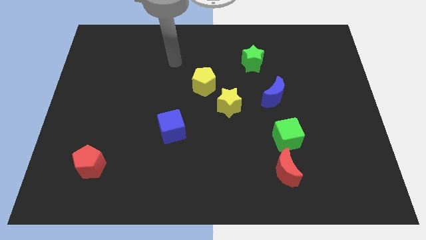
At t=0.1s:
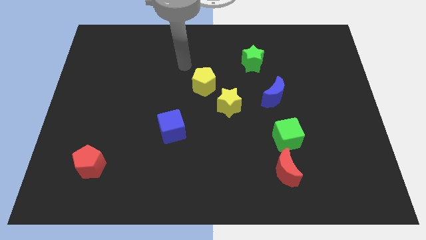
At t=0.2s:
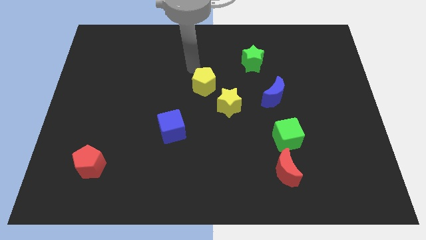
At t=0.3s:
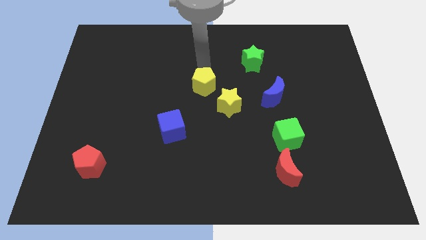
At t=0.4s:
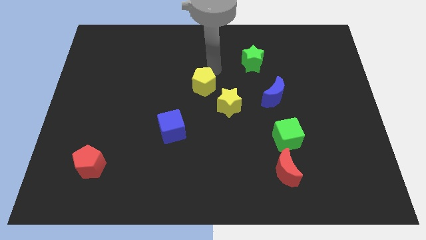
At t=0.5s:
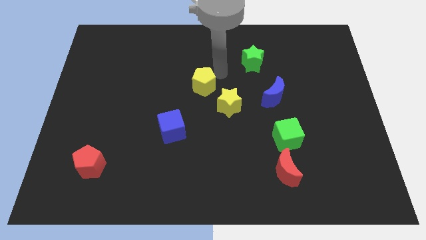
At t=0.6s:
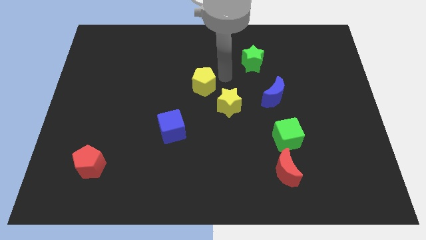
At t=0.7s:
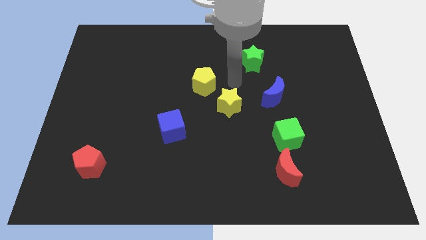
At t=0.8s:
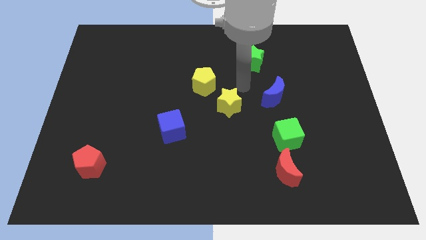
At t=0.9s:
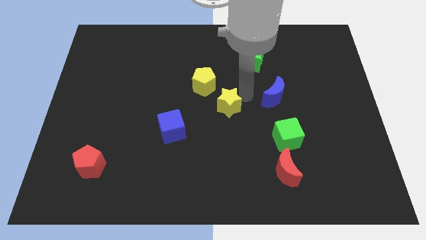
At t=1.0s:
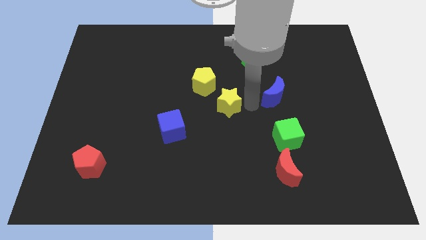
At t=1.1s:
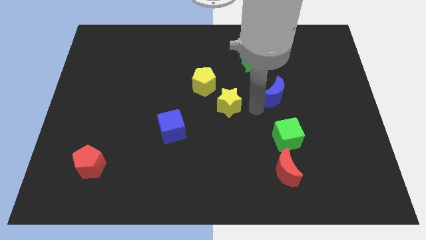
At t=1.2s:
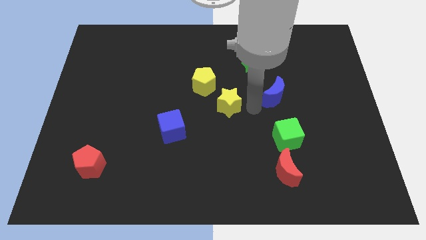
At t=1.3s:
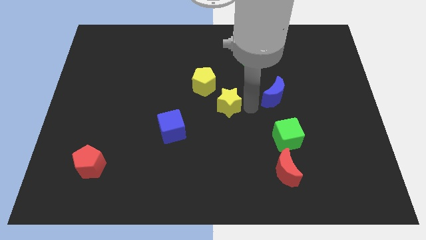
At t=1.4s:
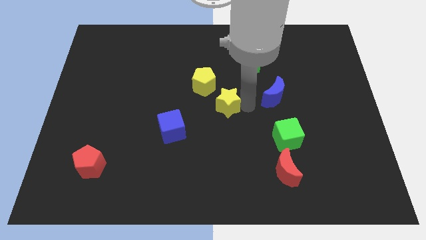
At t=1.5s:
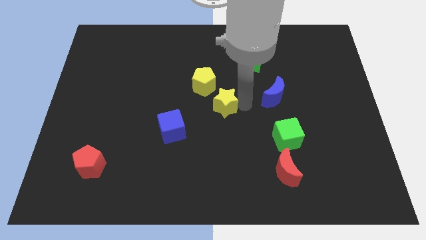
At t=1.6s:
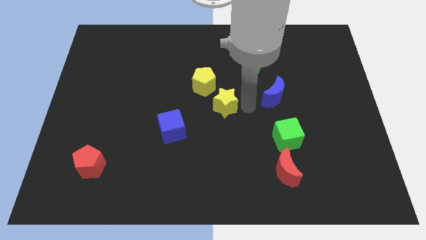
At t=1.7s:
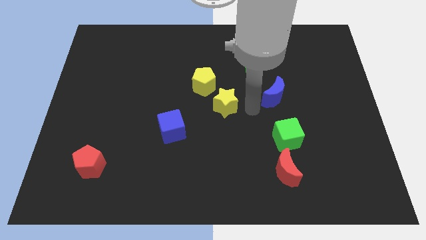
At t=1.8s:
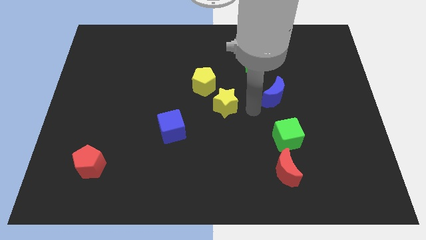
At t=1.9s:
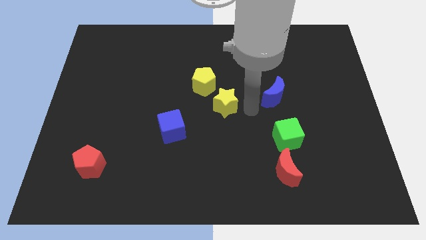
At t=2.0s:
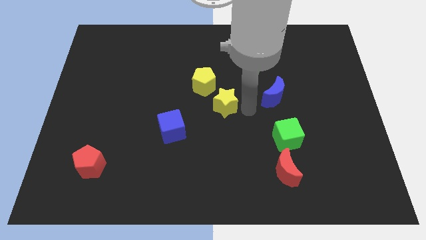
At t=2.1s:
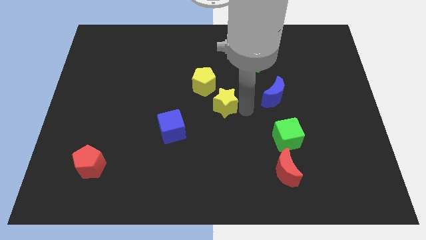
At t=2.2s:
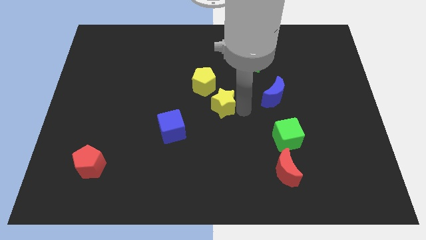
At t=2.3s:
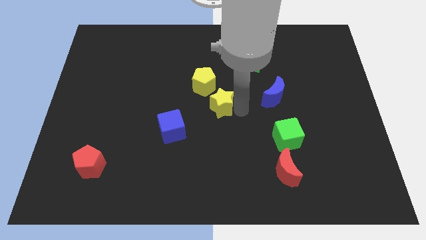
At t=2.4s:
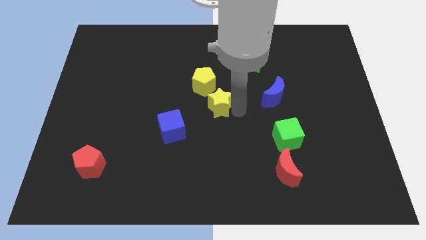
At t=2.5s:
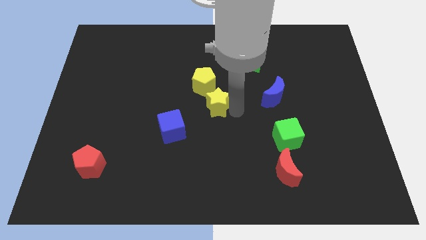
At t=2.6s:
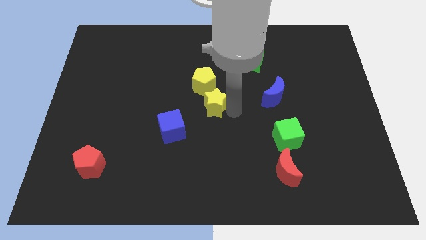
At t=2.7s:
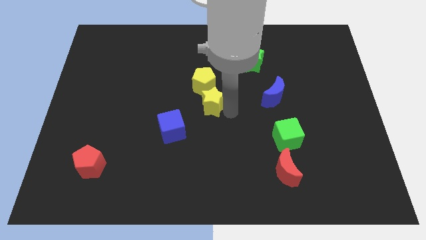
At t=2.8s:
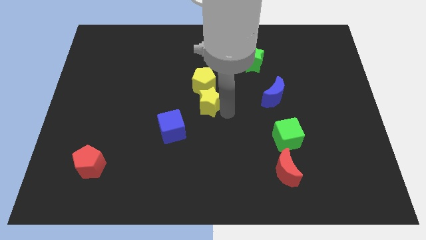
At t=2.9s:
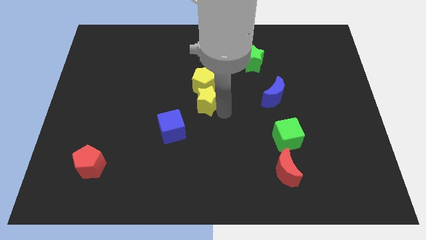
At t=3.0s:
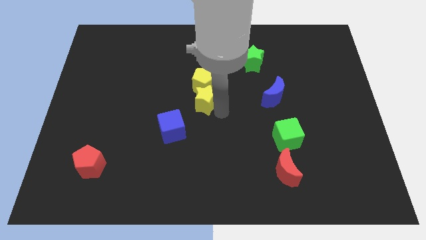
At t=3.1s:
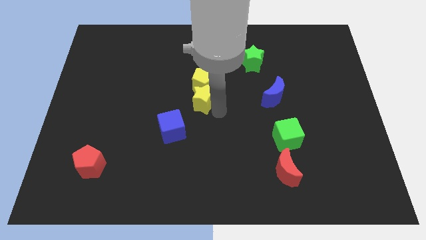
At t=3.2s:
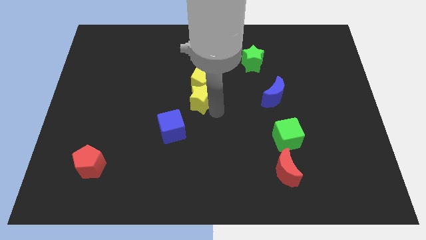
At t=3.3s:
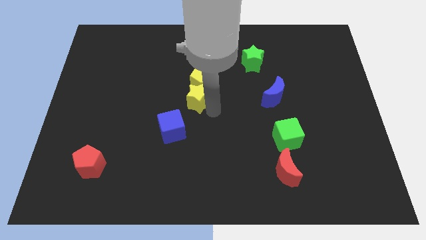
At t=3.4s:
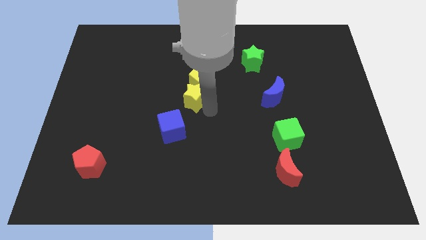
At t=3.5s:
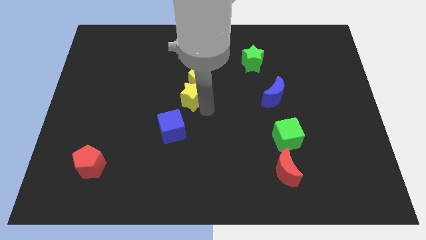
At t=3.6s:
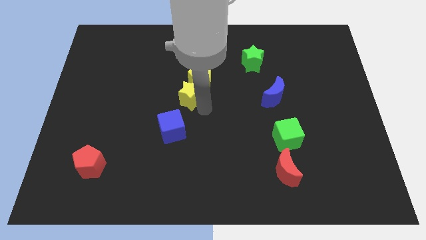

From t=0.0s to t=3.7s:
move the yellow star up and to the left diagonally a bit

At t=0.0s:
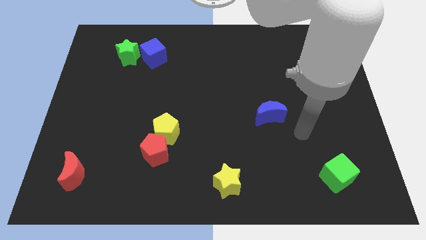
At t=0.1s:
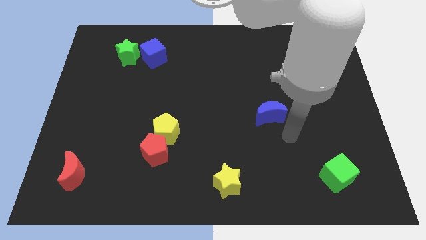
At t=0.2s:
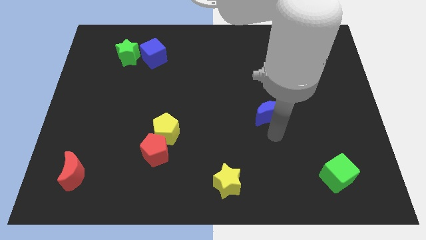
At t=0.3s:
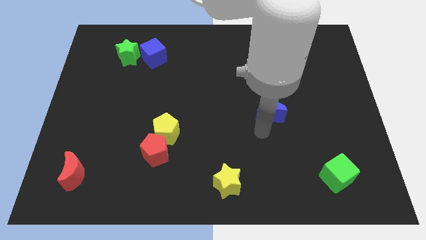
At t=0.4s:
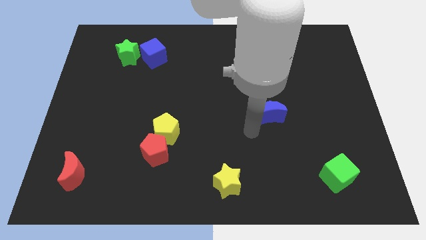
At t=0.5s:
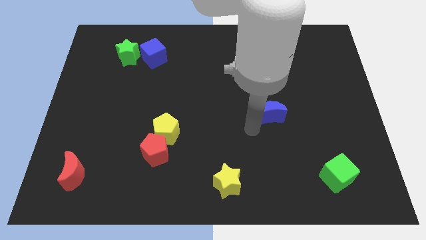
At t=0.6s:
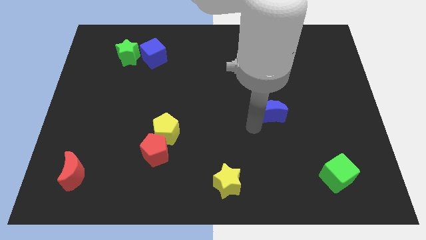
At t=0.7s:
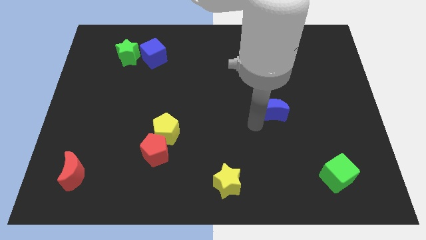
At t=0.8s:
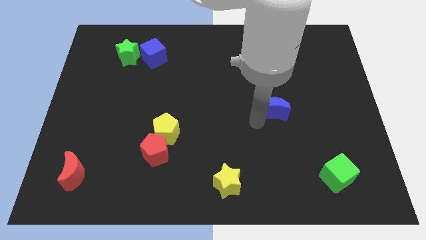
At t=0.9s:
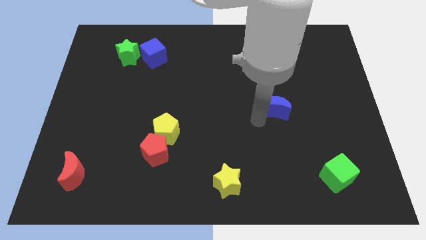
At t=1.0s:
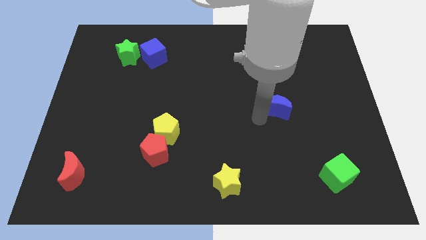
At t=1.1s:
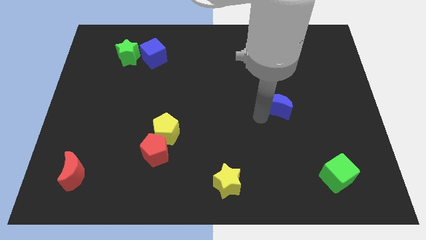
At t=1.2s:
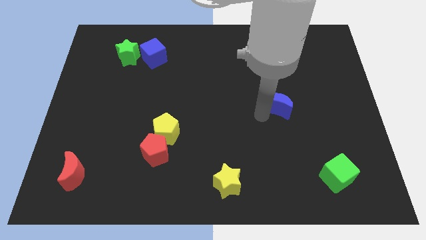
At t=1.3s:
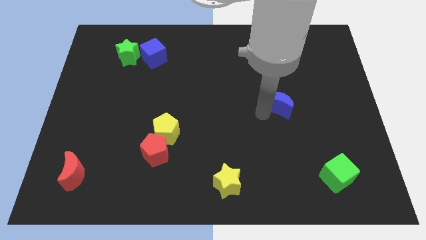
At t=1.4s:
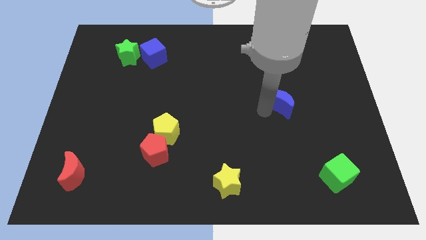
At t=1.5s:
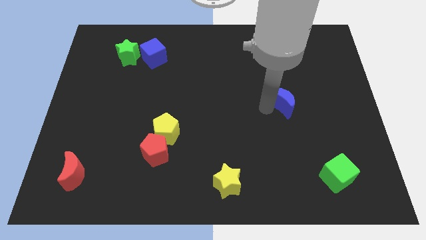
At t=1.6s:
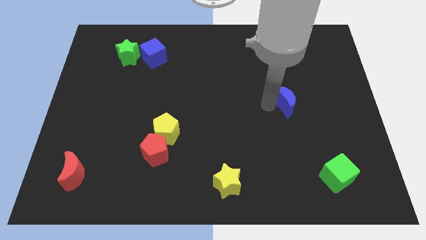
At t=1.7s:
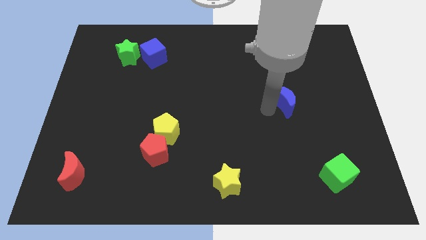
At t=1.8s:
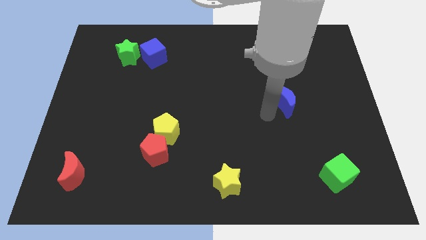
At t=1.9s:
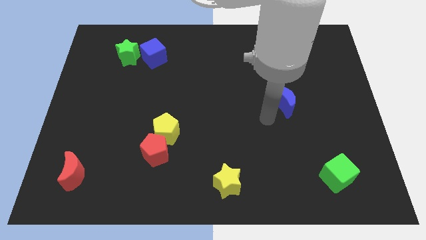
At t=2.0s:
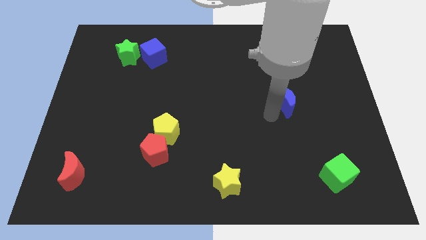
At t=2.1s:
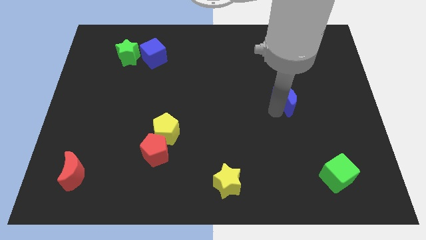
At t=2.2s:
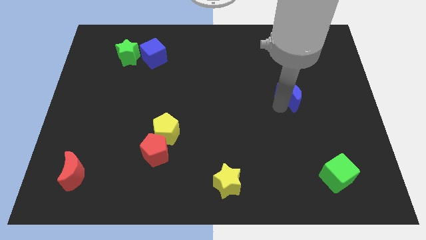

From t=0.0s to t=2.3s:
slide the blue moon up and right diagonally a little

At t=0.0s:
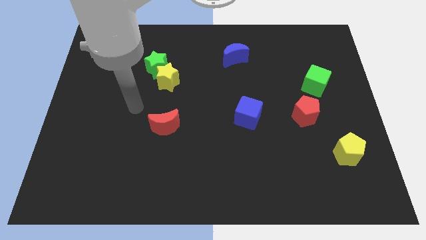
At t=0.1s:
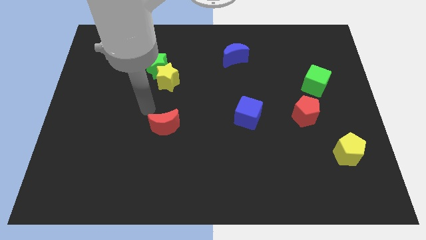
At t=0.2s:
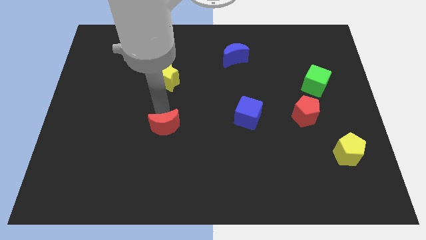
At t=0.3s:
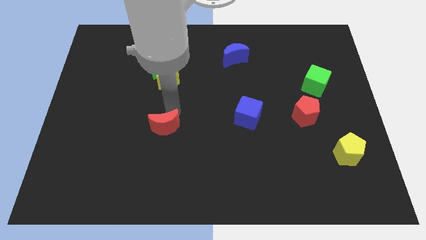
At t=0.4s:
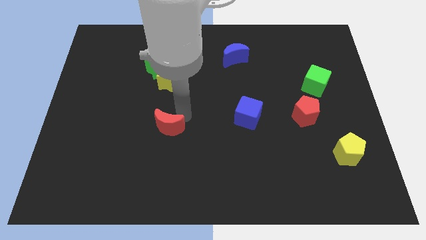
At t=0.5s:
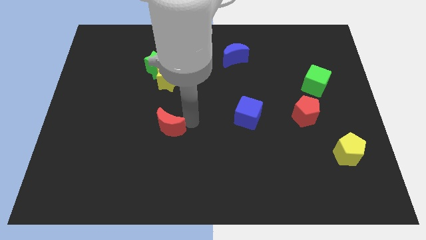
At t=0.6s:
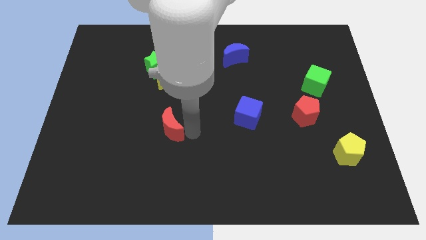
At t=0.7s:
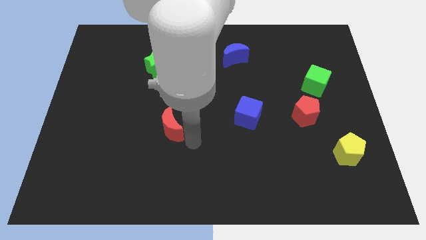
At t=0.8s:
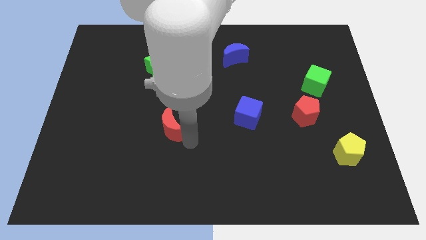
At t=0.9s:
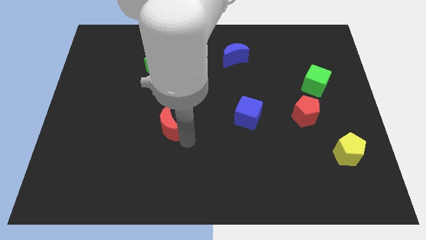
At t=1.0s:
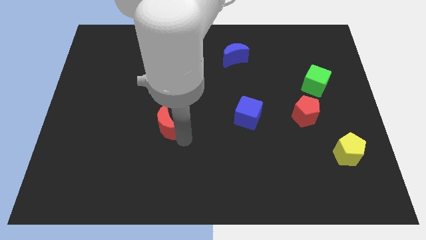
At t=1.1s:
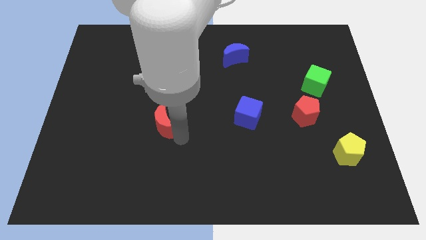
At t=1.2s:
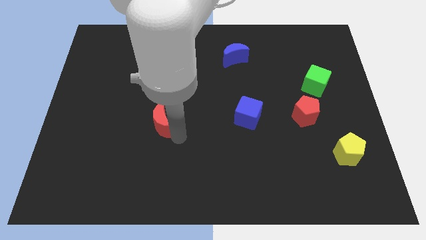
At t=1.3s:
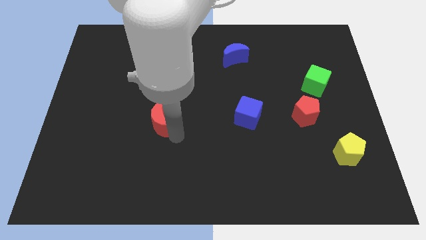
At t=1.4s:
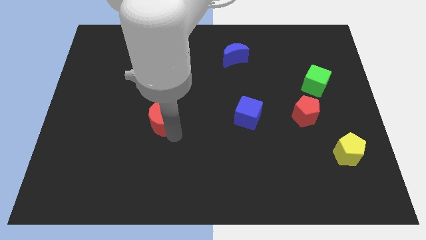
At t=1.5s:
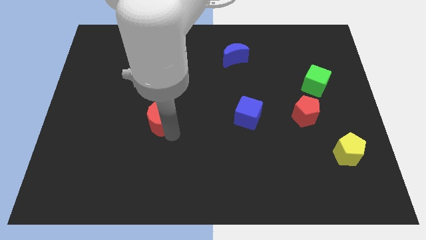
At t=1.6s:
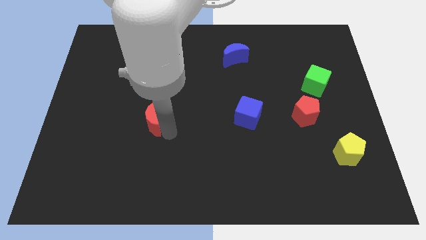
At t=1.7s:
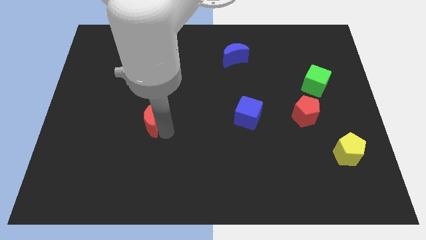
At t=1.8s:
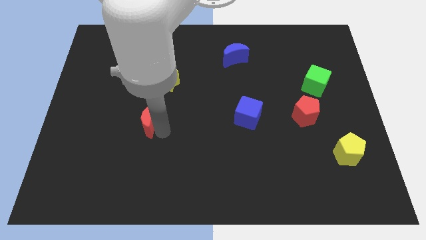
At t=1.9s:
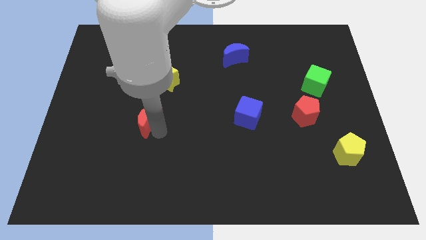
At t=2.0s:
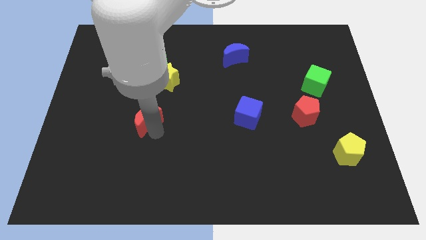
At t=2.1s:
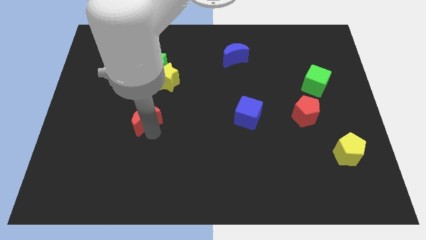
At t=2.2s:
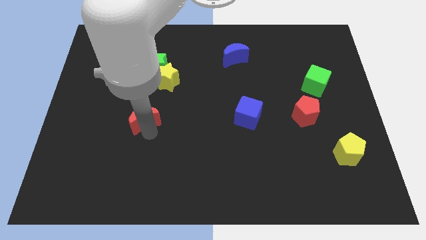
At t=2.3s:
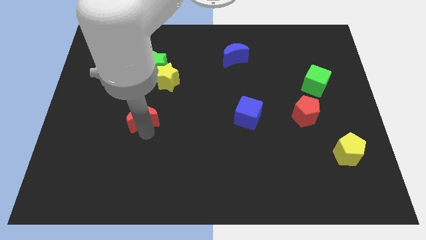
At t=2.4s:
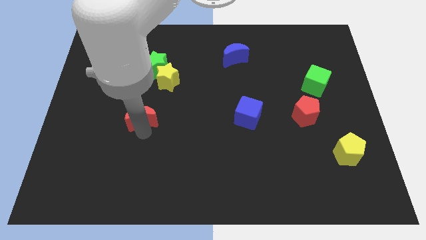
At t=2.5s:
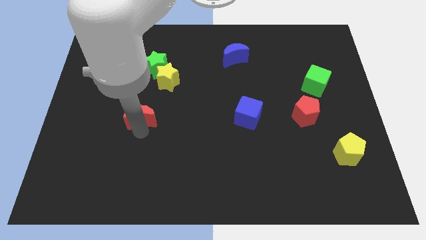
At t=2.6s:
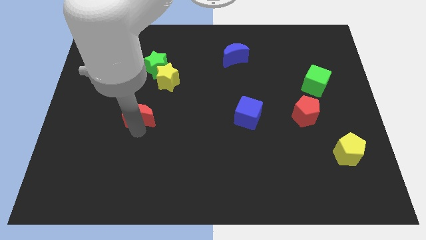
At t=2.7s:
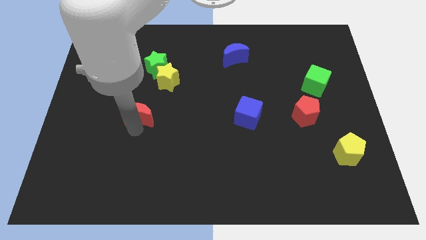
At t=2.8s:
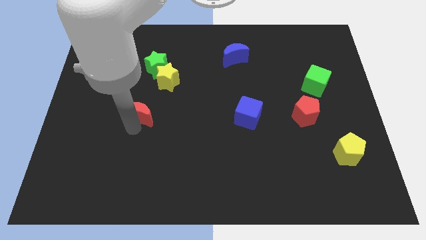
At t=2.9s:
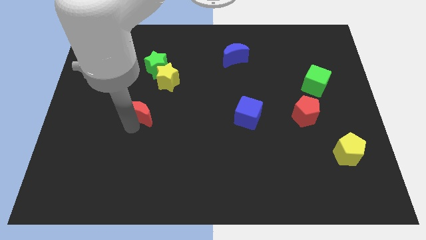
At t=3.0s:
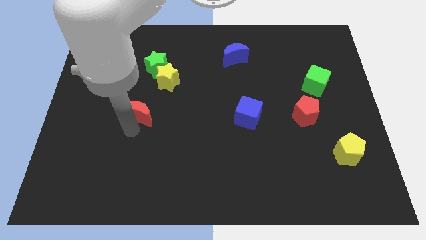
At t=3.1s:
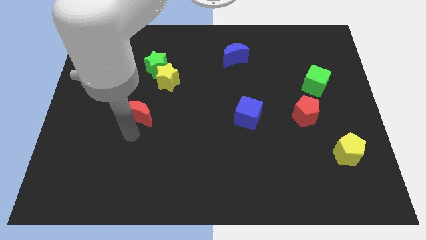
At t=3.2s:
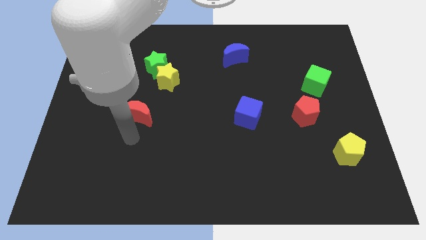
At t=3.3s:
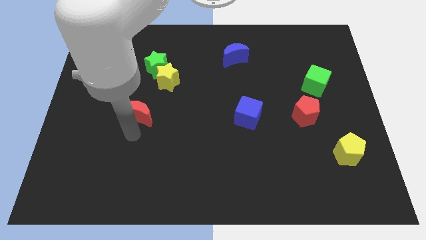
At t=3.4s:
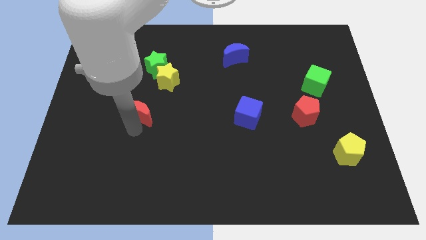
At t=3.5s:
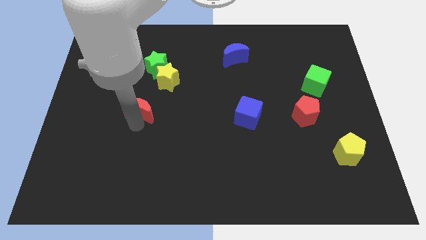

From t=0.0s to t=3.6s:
push the red moon upwards and then to the left a little bit
